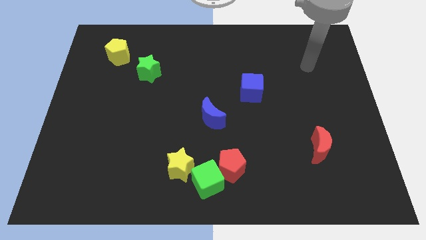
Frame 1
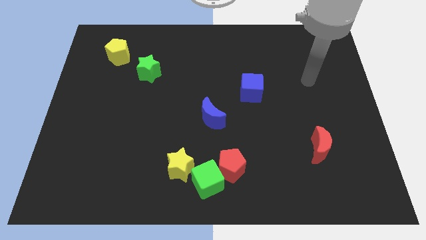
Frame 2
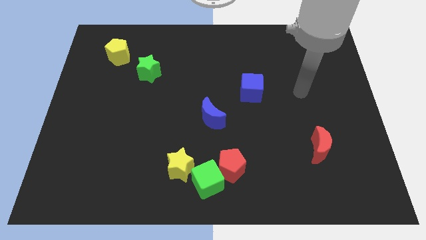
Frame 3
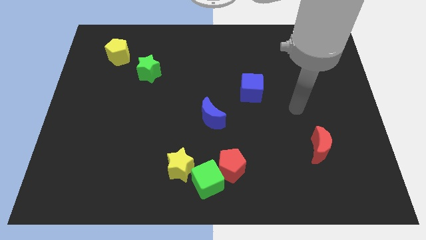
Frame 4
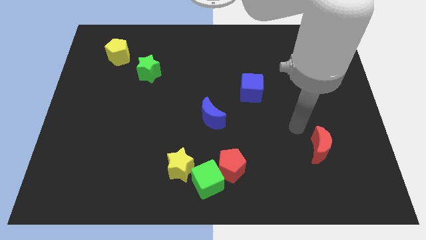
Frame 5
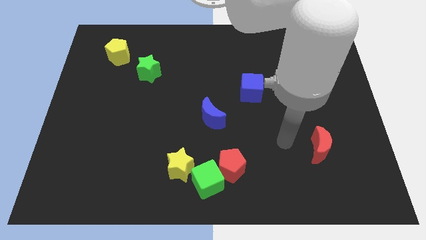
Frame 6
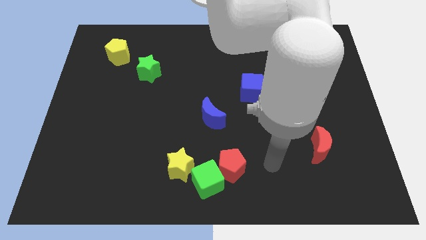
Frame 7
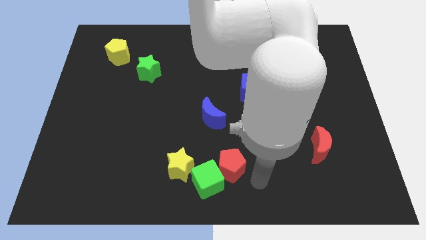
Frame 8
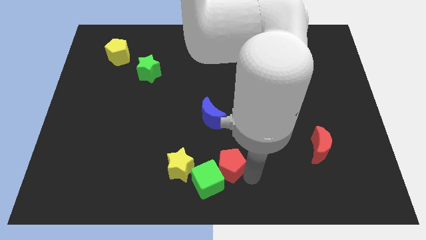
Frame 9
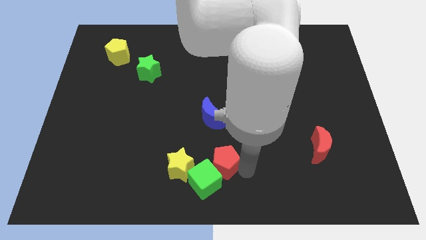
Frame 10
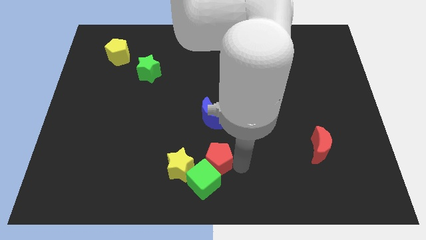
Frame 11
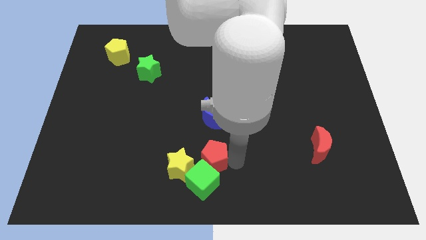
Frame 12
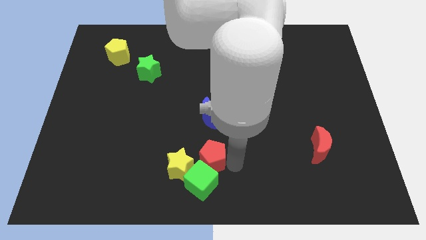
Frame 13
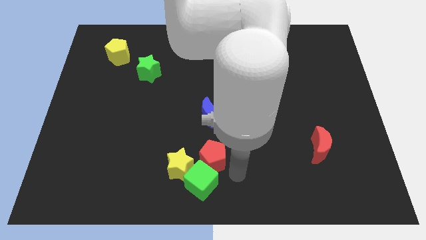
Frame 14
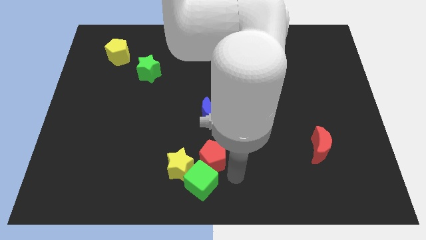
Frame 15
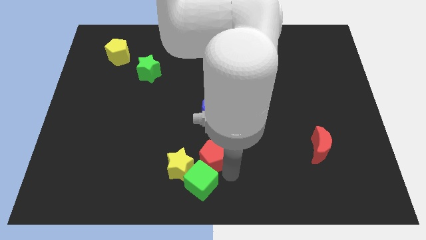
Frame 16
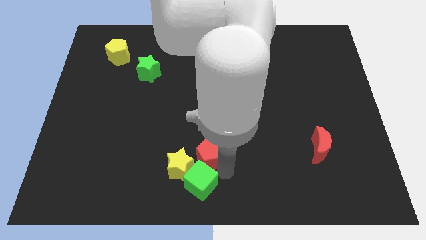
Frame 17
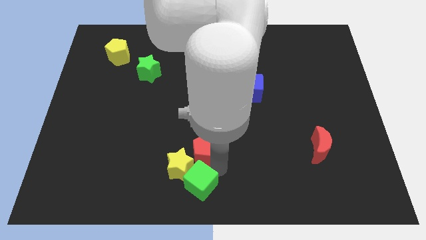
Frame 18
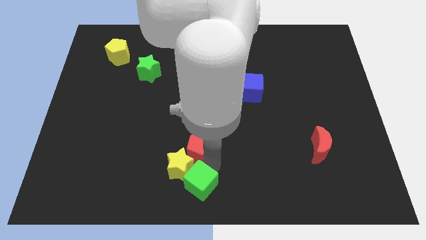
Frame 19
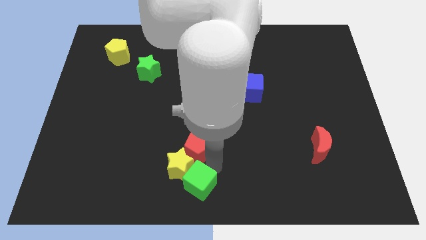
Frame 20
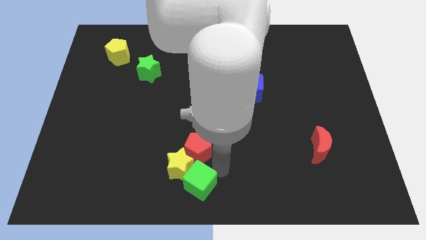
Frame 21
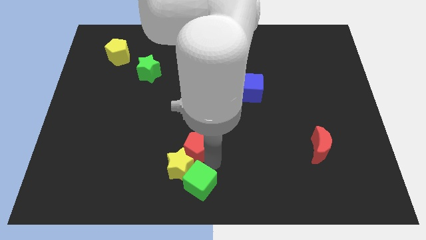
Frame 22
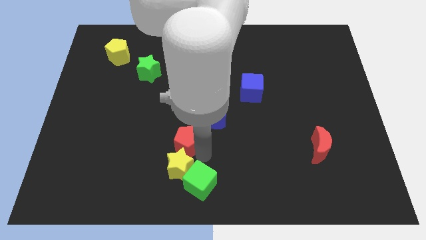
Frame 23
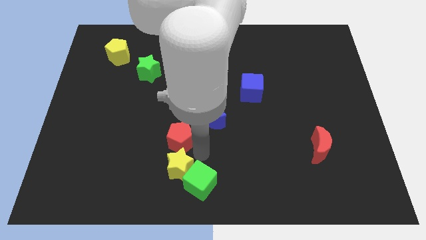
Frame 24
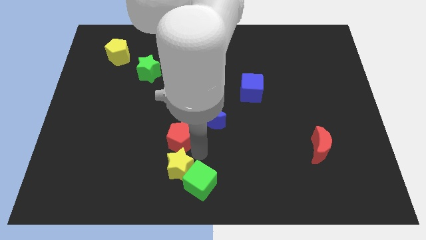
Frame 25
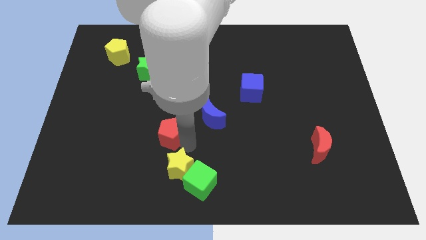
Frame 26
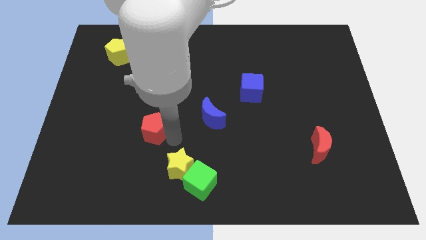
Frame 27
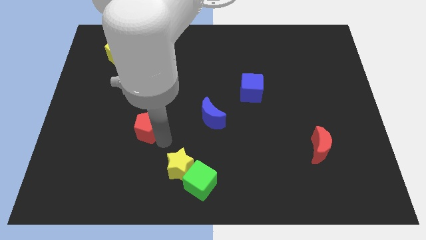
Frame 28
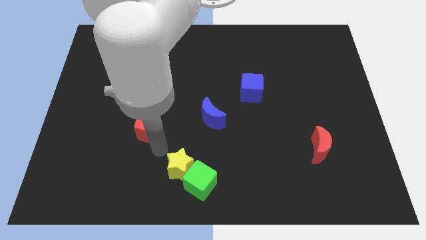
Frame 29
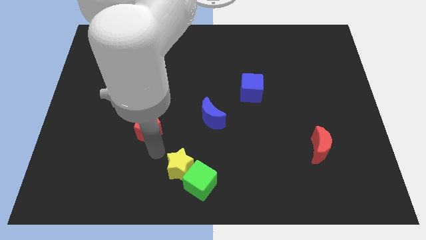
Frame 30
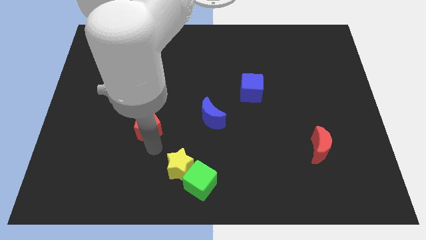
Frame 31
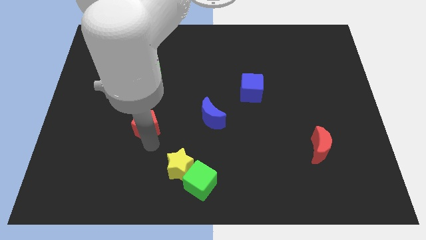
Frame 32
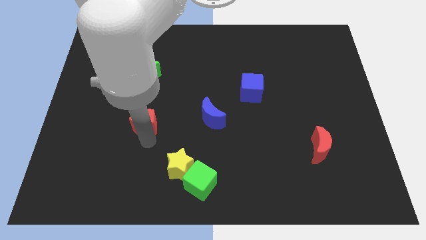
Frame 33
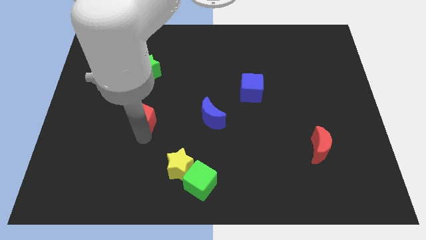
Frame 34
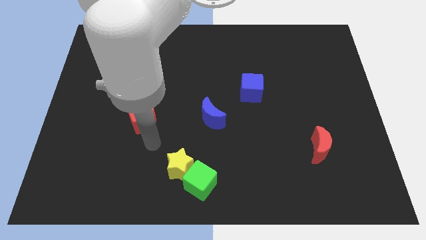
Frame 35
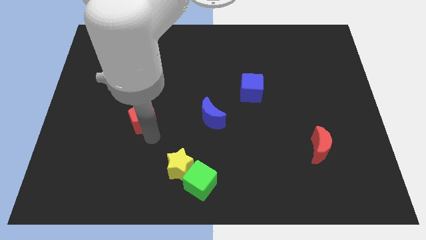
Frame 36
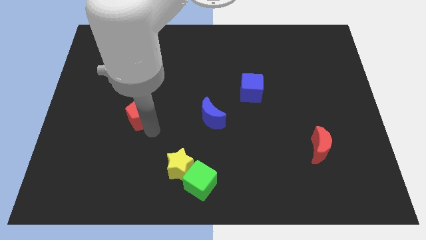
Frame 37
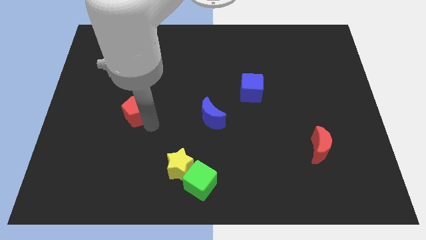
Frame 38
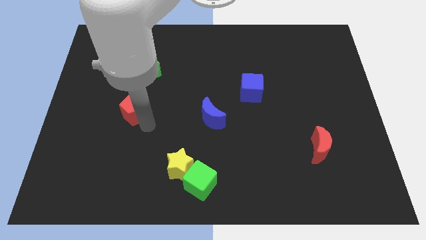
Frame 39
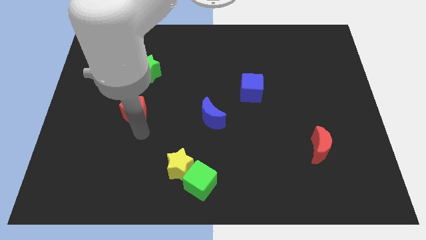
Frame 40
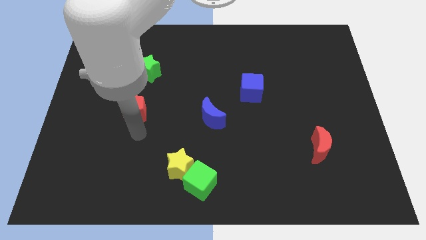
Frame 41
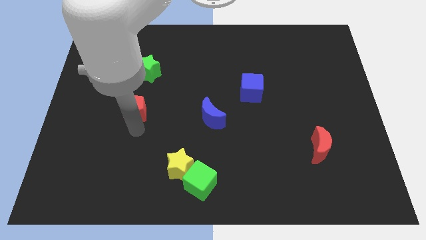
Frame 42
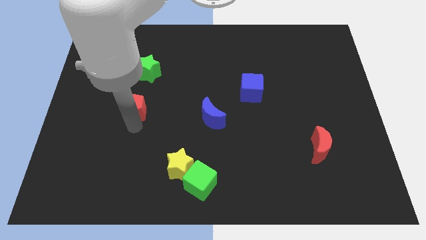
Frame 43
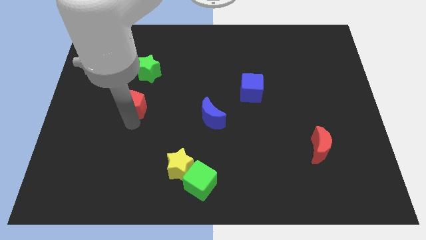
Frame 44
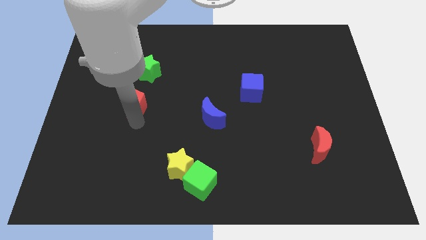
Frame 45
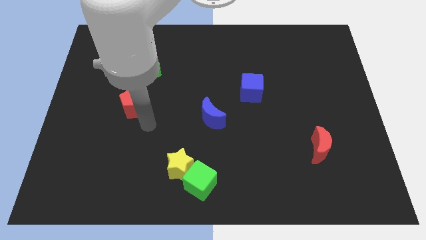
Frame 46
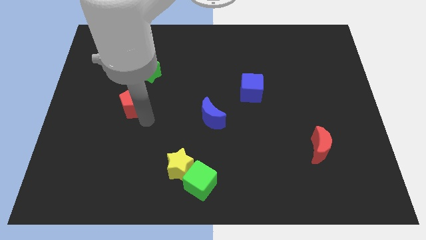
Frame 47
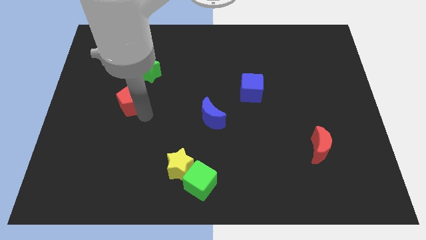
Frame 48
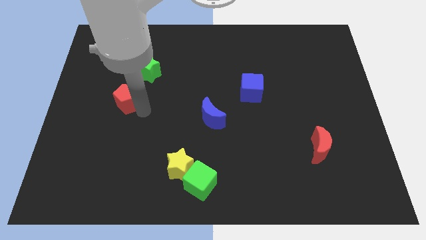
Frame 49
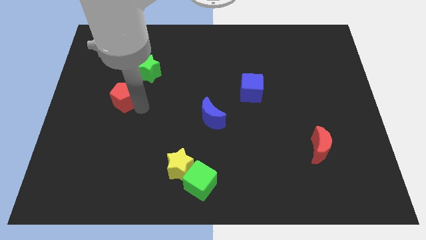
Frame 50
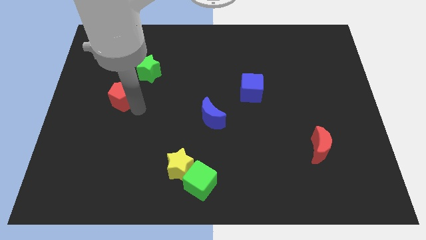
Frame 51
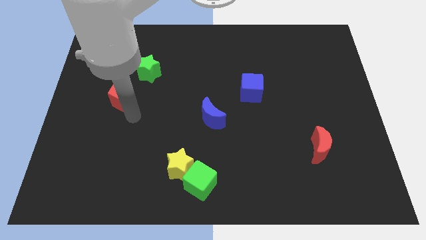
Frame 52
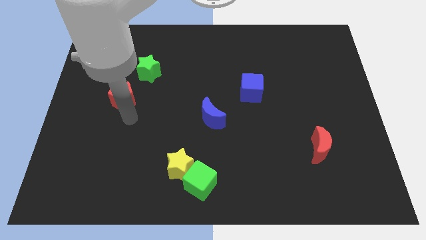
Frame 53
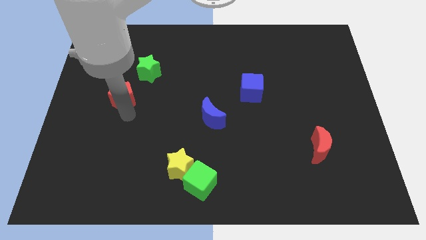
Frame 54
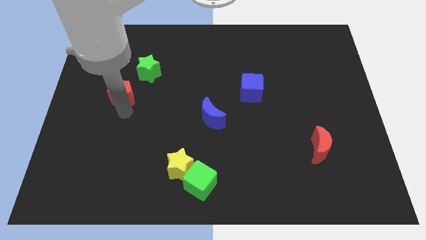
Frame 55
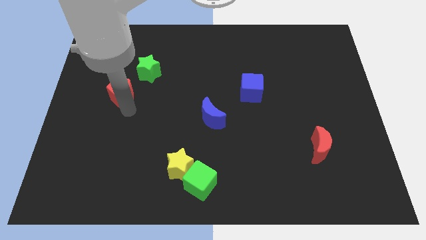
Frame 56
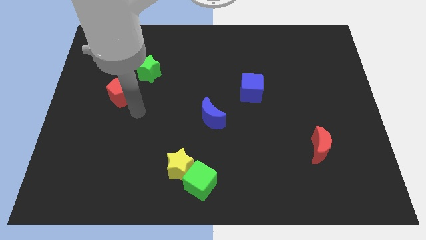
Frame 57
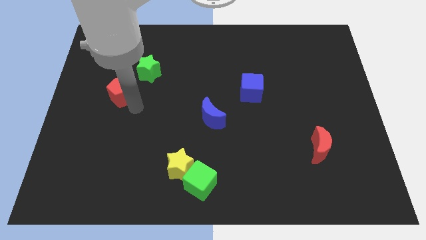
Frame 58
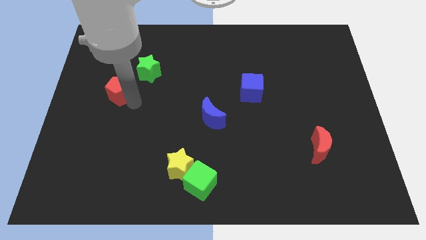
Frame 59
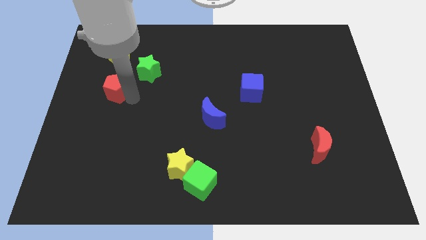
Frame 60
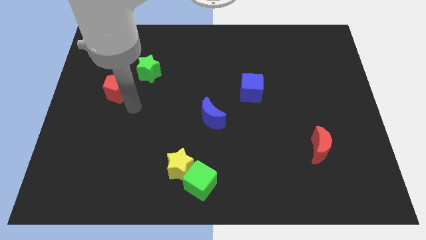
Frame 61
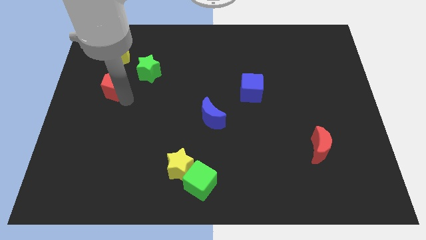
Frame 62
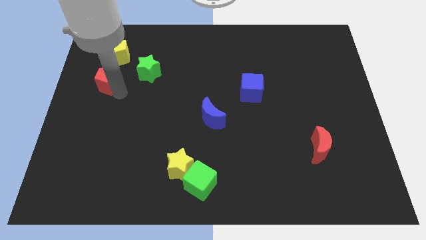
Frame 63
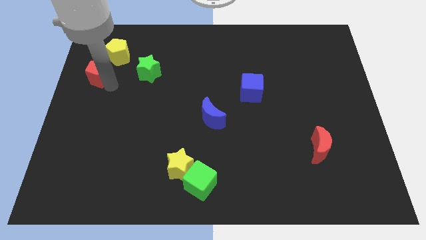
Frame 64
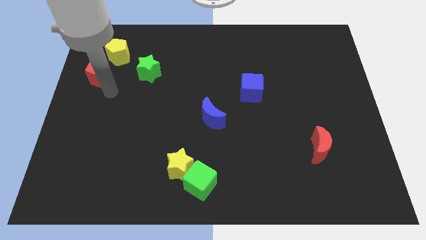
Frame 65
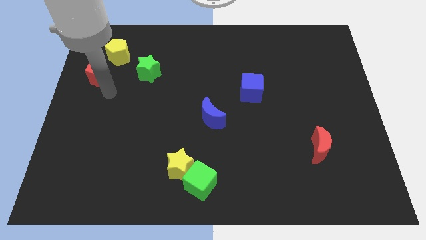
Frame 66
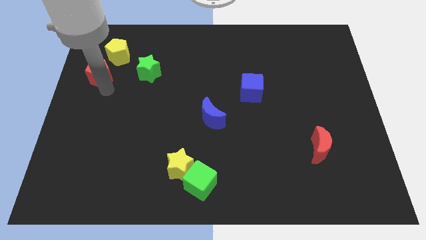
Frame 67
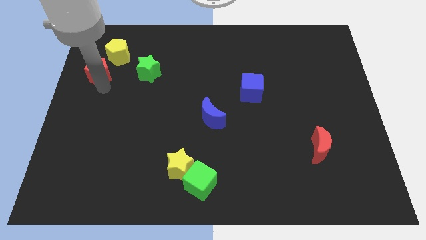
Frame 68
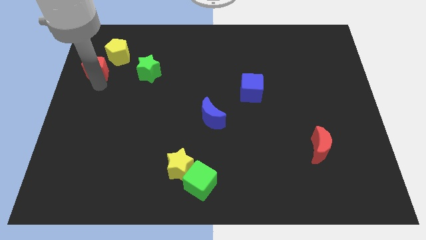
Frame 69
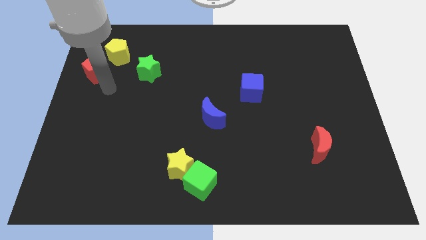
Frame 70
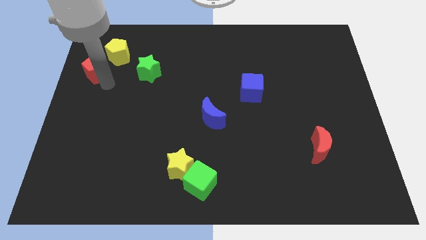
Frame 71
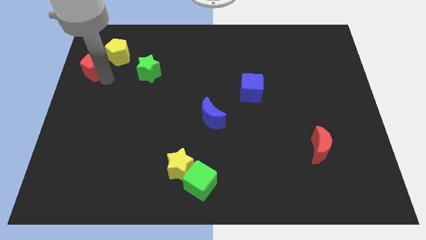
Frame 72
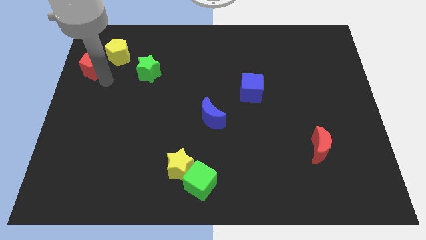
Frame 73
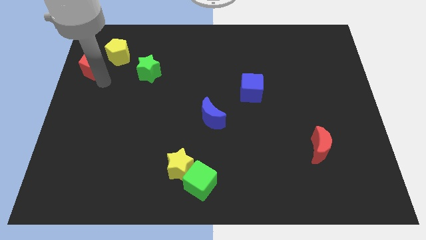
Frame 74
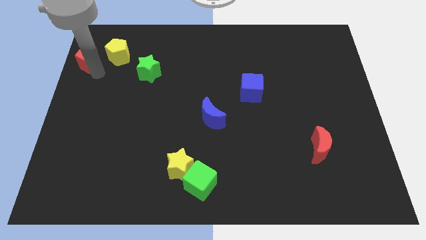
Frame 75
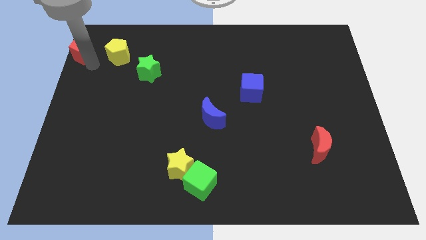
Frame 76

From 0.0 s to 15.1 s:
push the red pentagon to the top left of the board
